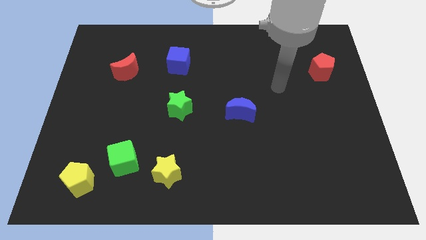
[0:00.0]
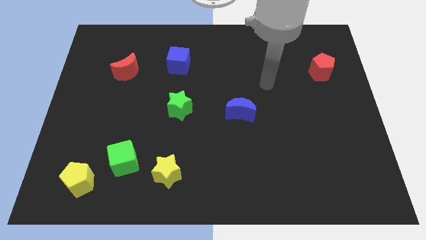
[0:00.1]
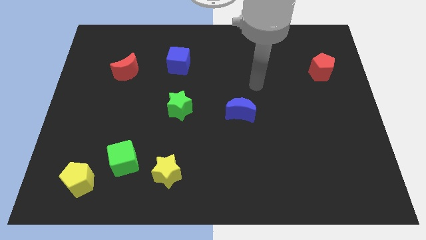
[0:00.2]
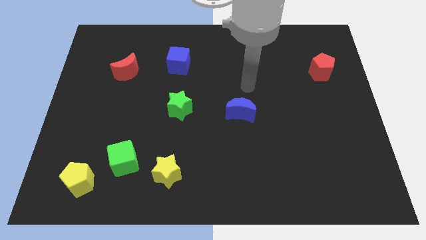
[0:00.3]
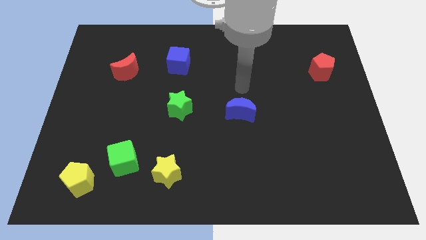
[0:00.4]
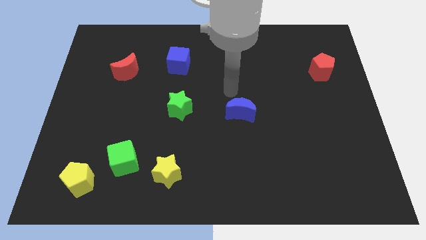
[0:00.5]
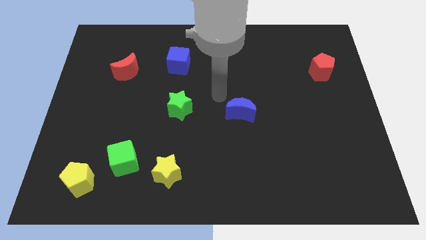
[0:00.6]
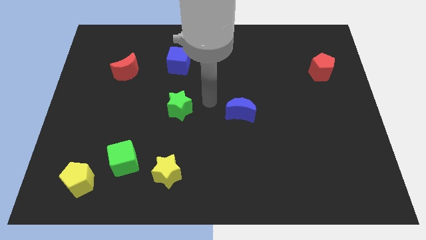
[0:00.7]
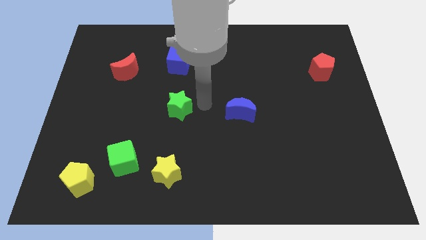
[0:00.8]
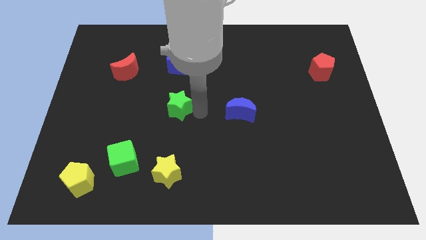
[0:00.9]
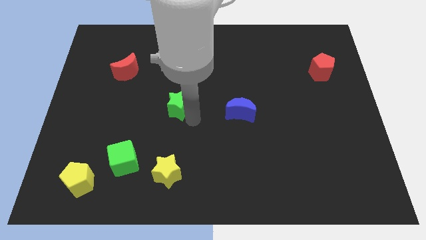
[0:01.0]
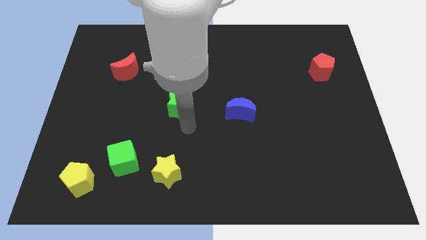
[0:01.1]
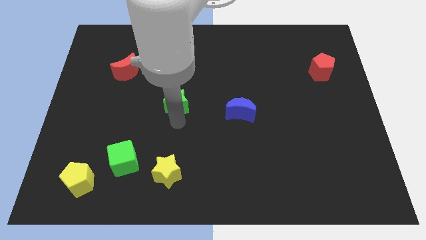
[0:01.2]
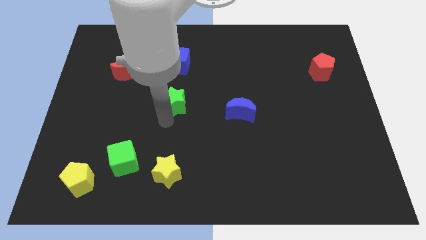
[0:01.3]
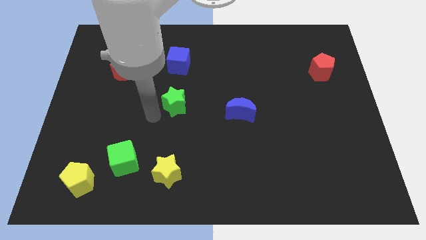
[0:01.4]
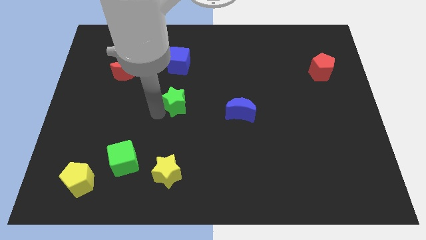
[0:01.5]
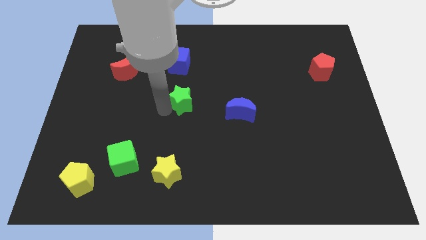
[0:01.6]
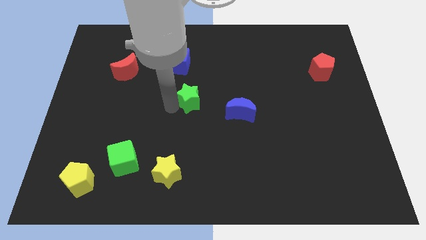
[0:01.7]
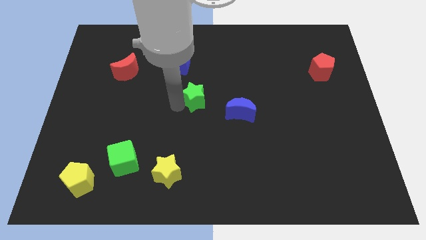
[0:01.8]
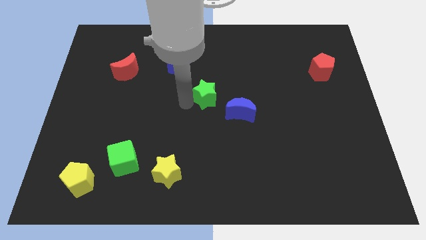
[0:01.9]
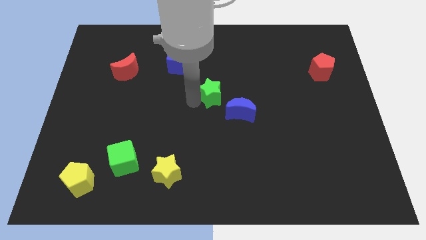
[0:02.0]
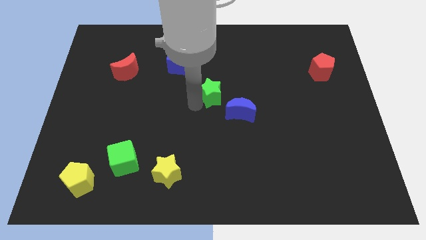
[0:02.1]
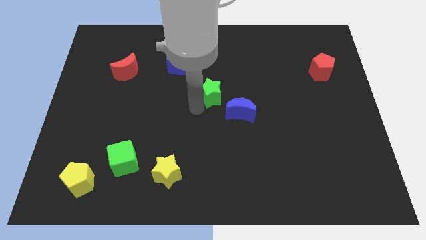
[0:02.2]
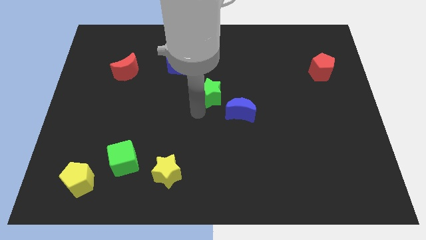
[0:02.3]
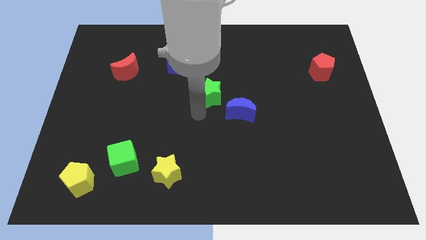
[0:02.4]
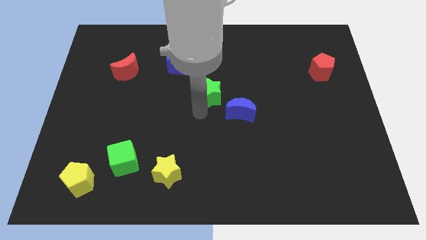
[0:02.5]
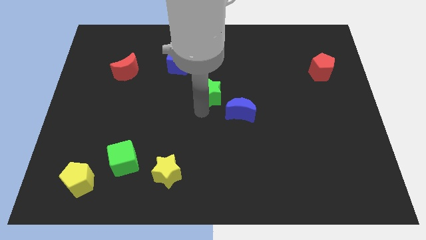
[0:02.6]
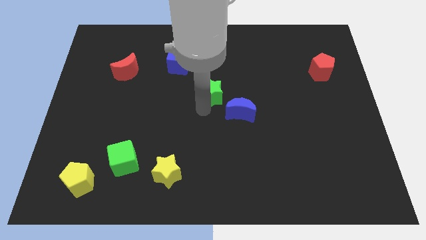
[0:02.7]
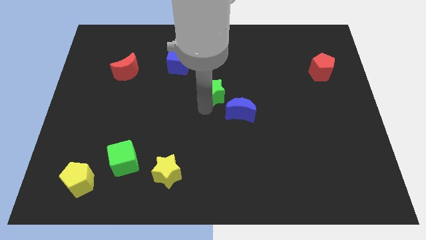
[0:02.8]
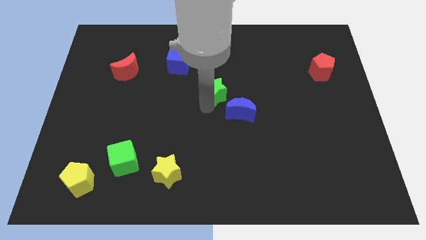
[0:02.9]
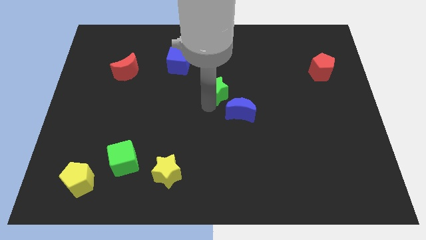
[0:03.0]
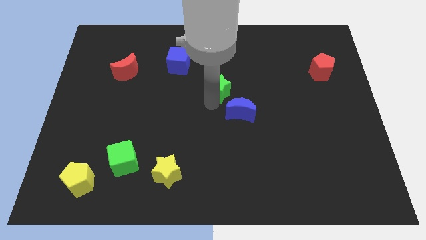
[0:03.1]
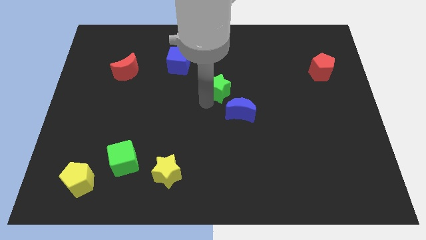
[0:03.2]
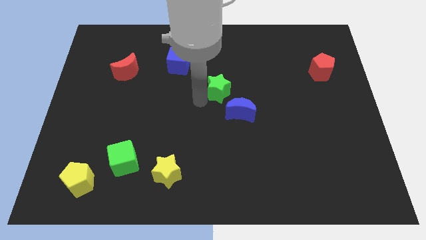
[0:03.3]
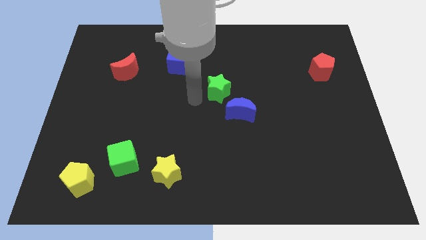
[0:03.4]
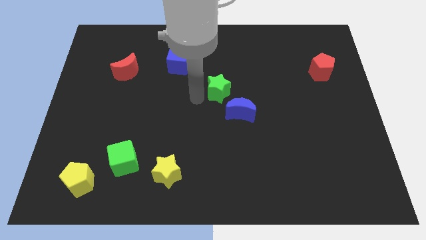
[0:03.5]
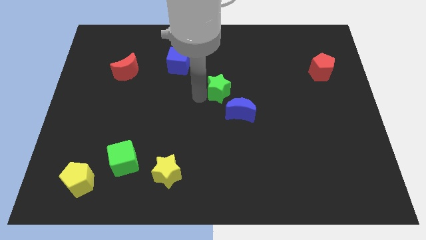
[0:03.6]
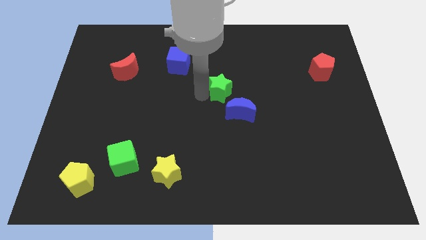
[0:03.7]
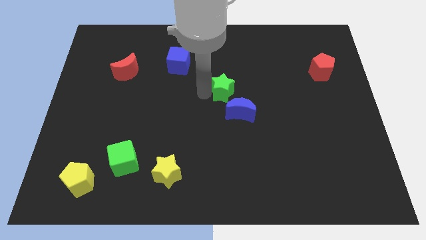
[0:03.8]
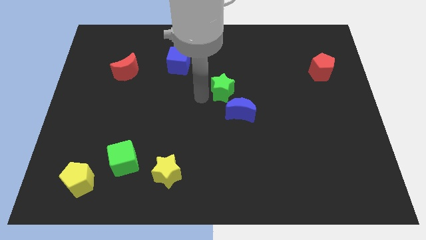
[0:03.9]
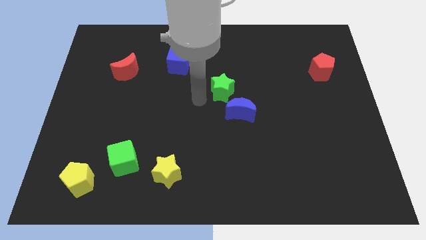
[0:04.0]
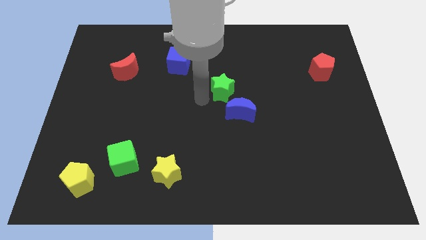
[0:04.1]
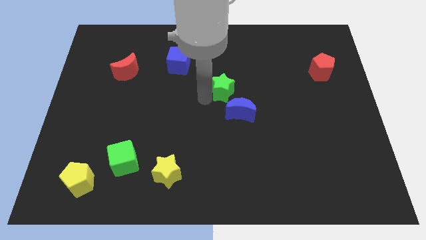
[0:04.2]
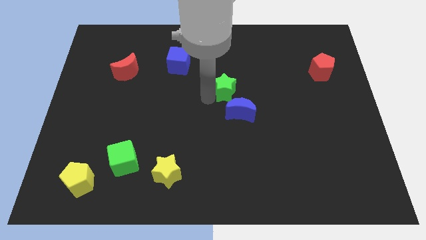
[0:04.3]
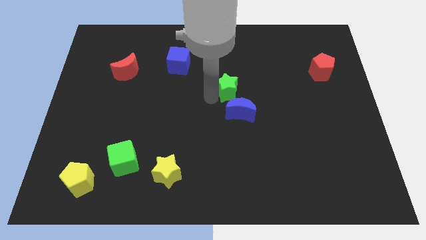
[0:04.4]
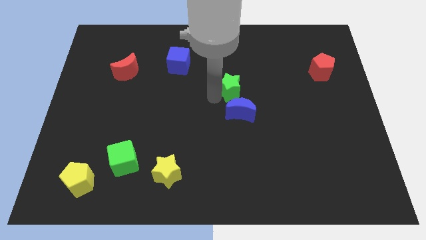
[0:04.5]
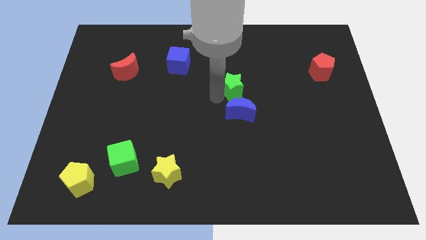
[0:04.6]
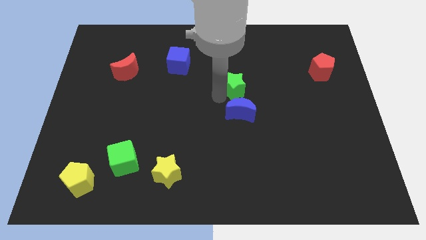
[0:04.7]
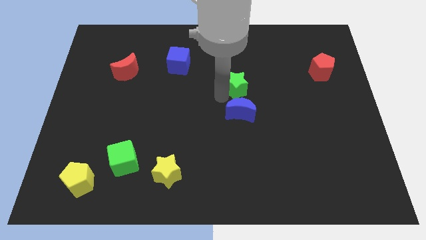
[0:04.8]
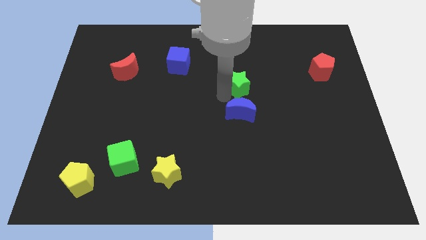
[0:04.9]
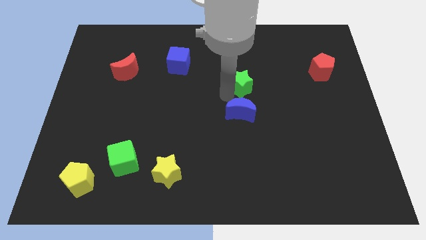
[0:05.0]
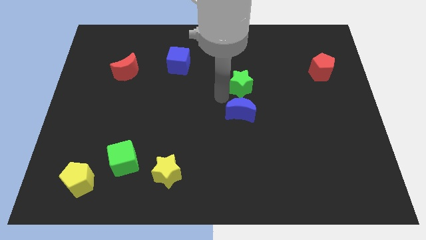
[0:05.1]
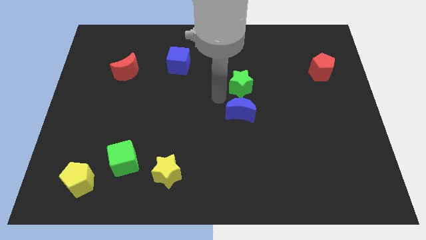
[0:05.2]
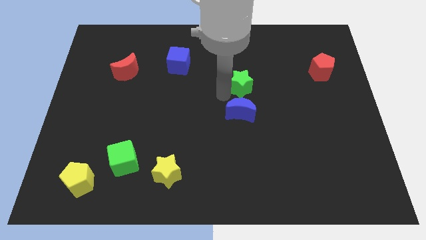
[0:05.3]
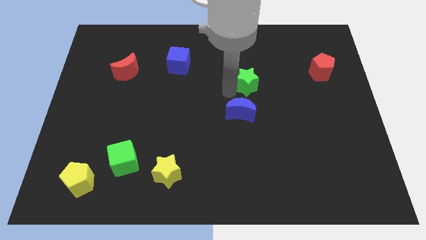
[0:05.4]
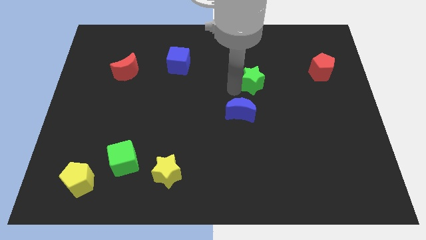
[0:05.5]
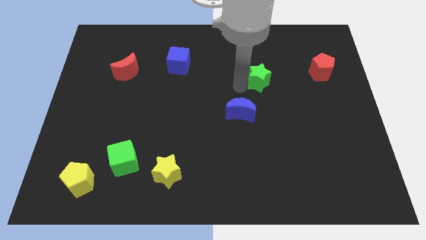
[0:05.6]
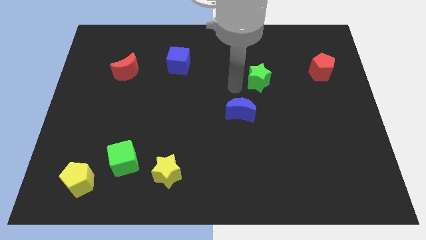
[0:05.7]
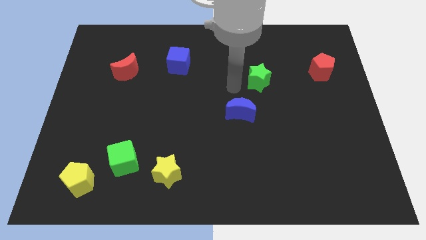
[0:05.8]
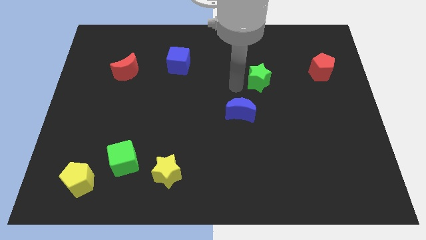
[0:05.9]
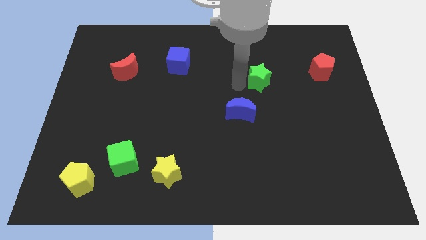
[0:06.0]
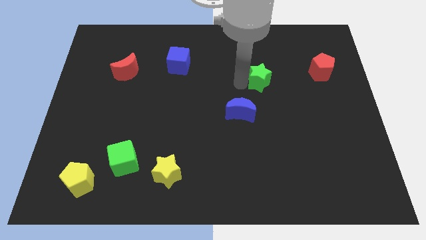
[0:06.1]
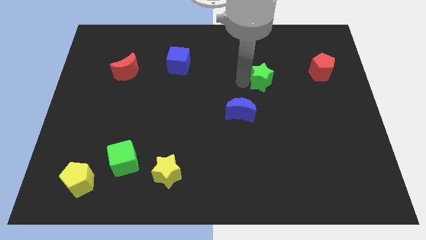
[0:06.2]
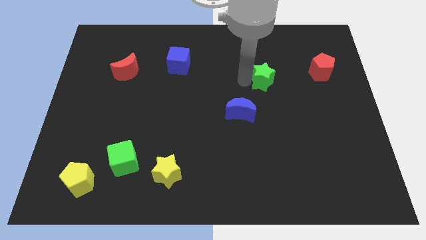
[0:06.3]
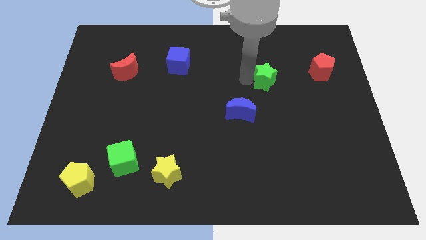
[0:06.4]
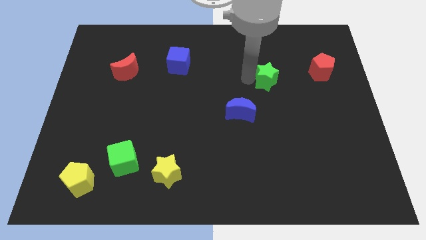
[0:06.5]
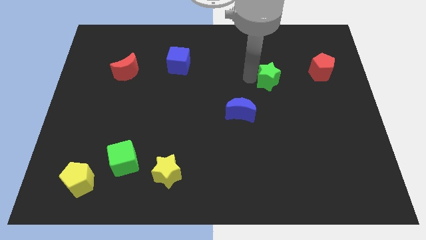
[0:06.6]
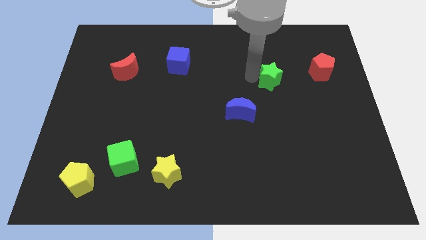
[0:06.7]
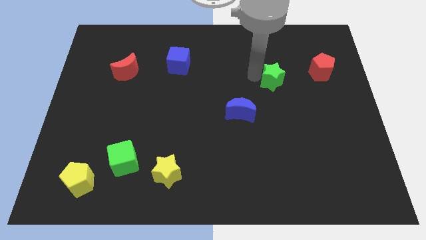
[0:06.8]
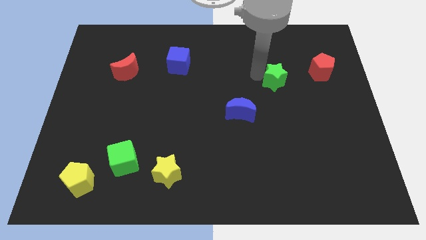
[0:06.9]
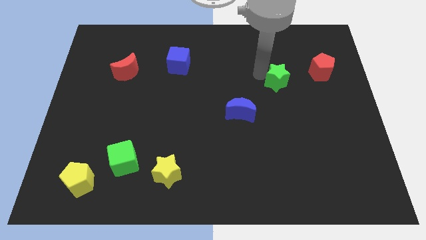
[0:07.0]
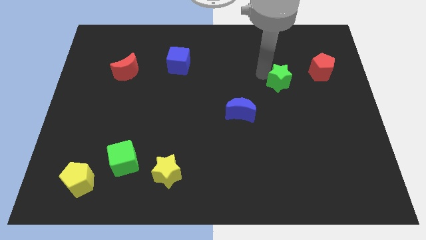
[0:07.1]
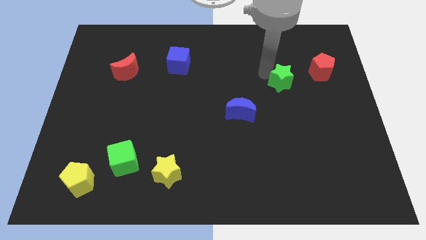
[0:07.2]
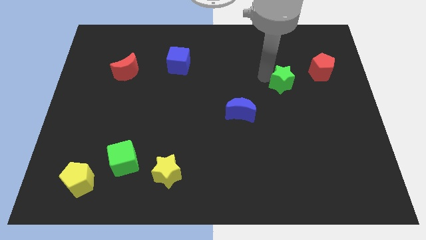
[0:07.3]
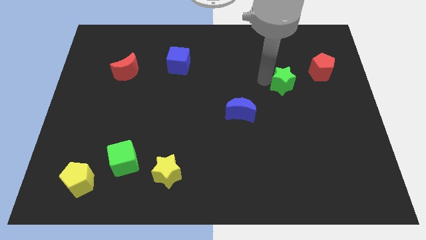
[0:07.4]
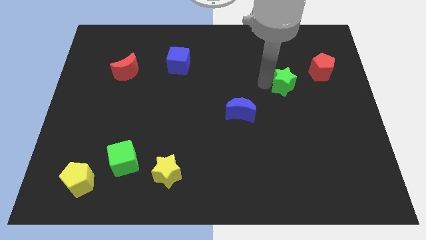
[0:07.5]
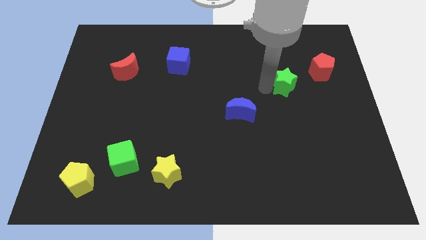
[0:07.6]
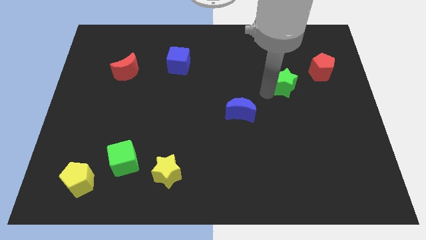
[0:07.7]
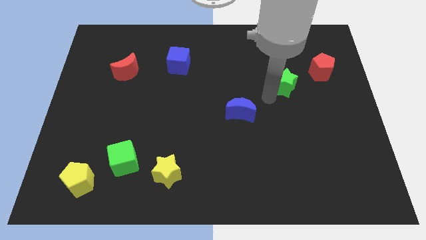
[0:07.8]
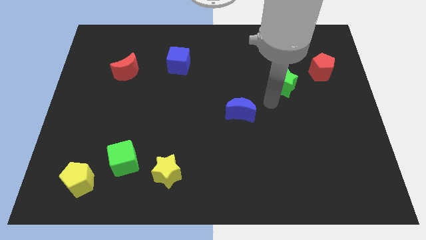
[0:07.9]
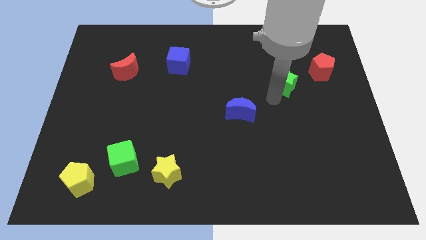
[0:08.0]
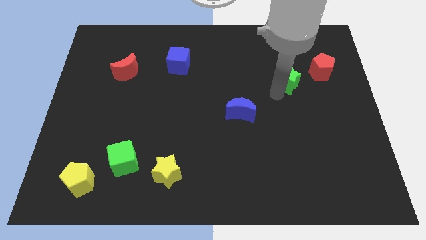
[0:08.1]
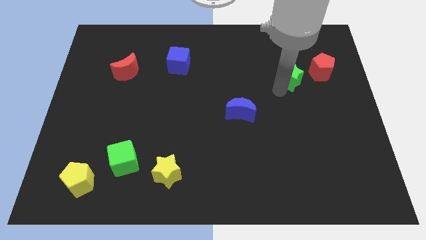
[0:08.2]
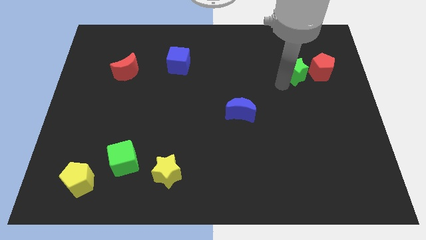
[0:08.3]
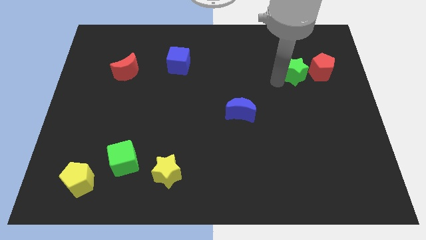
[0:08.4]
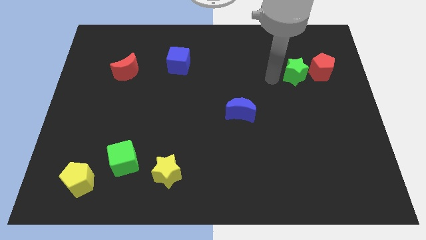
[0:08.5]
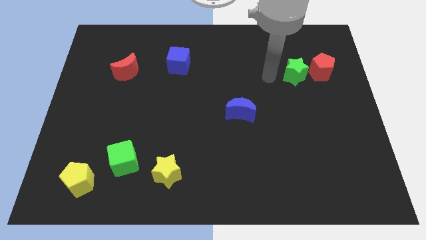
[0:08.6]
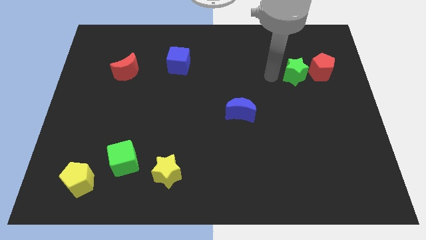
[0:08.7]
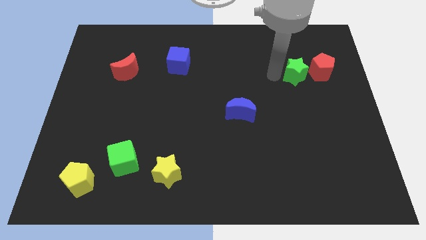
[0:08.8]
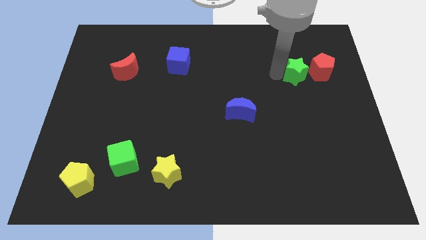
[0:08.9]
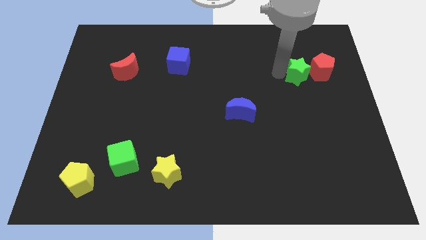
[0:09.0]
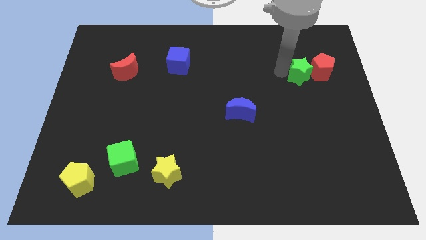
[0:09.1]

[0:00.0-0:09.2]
push the green star towards the red pentagon
